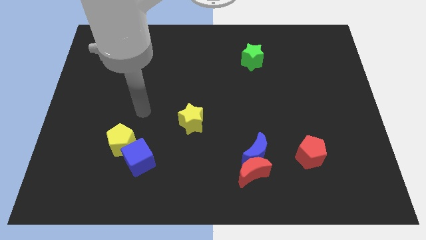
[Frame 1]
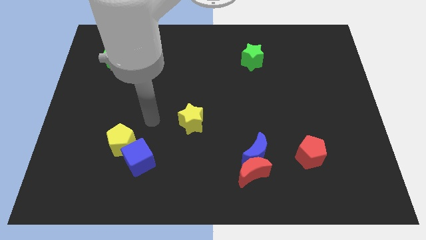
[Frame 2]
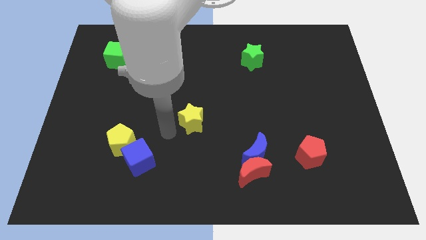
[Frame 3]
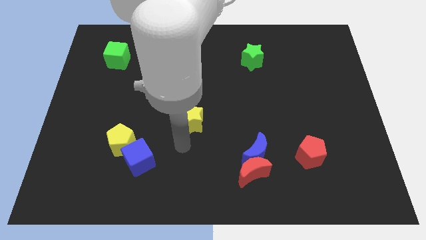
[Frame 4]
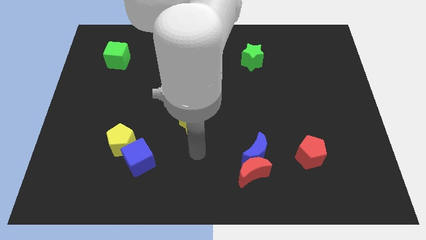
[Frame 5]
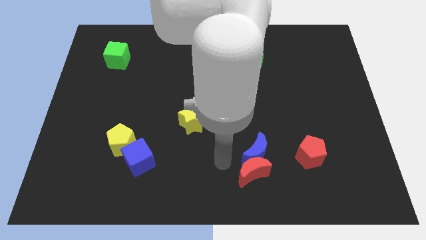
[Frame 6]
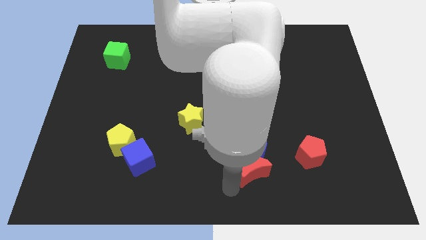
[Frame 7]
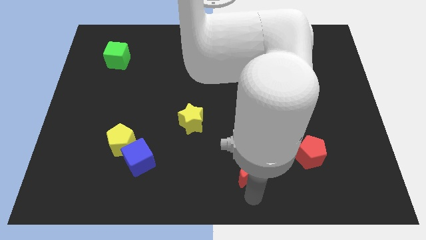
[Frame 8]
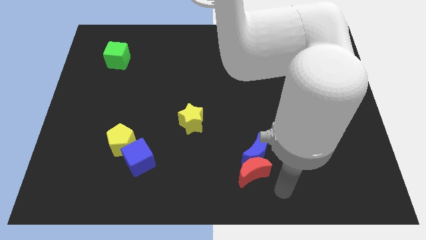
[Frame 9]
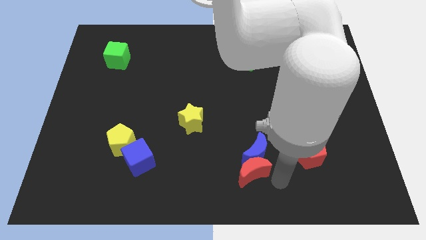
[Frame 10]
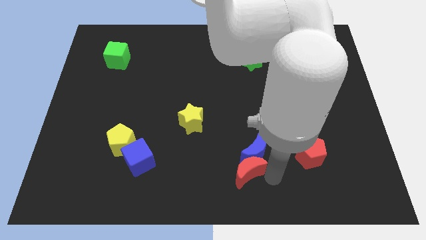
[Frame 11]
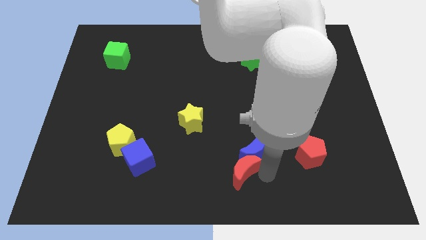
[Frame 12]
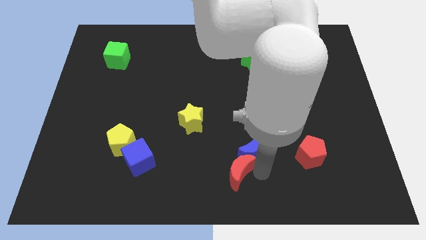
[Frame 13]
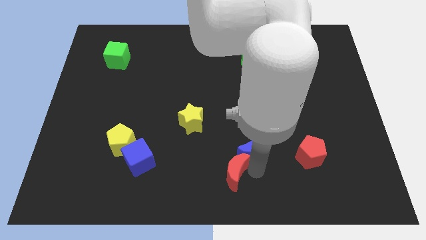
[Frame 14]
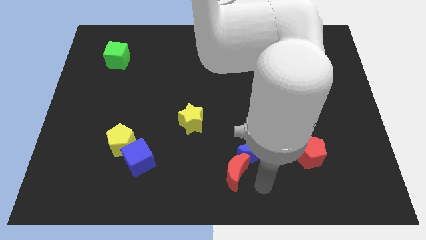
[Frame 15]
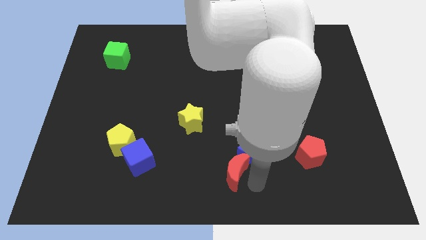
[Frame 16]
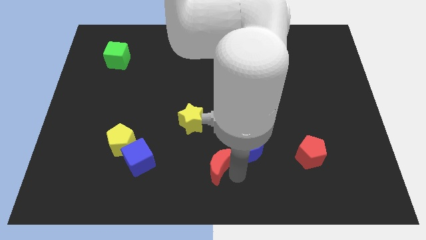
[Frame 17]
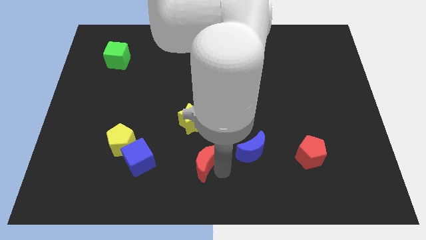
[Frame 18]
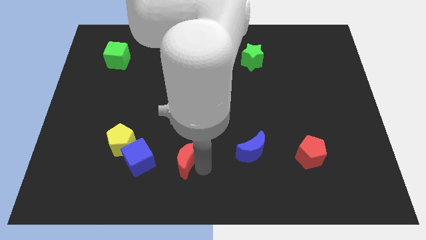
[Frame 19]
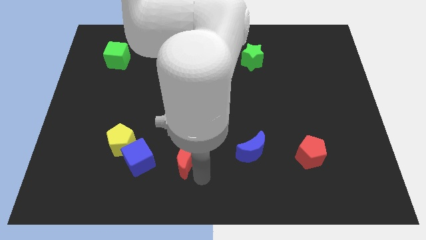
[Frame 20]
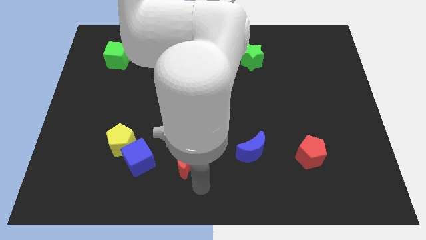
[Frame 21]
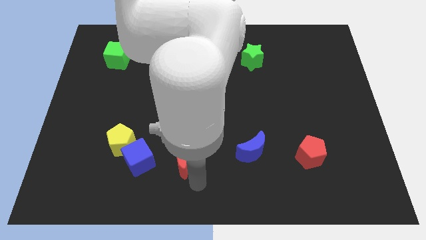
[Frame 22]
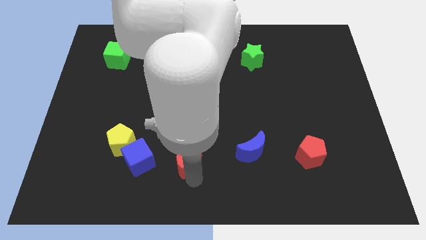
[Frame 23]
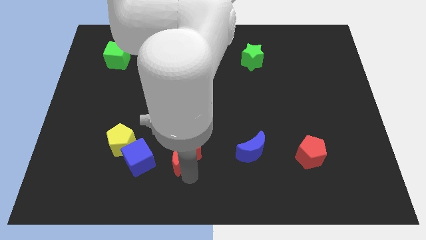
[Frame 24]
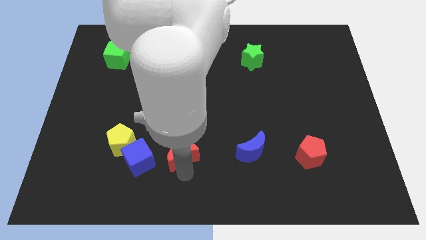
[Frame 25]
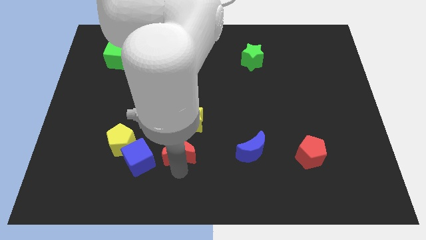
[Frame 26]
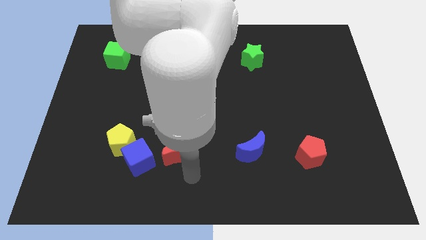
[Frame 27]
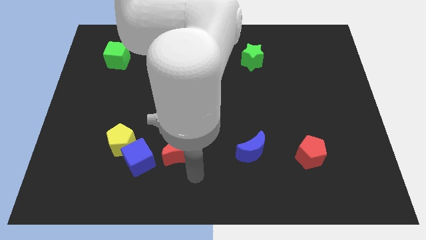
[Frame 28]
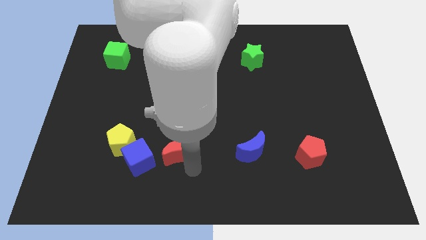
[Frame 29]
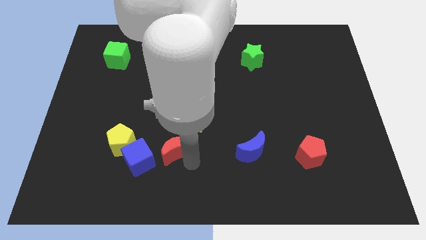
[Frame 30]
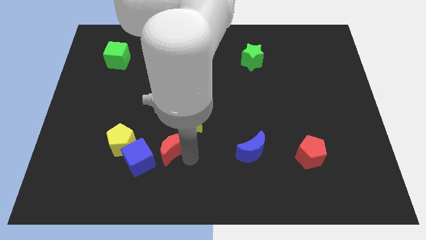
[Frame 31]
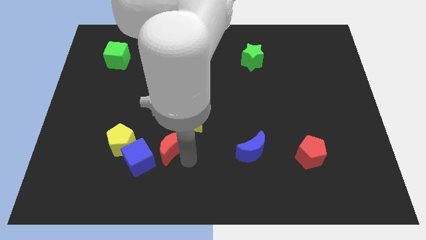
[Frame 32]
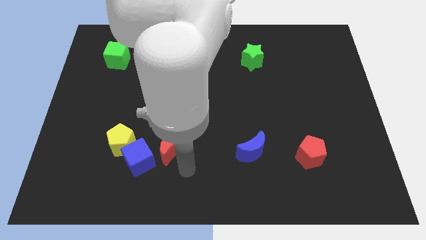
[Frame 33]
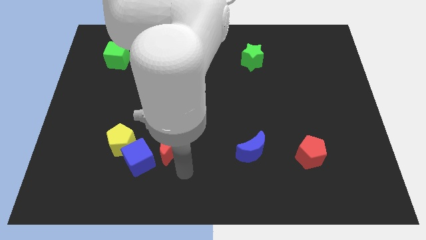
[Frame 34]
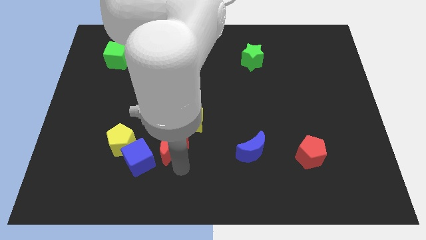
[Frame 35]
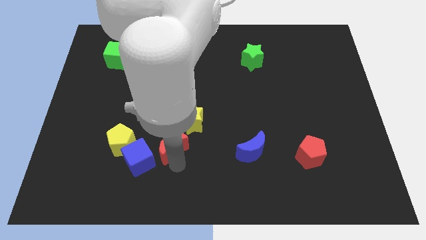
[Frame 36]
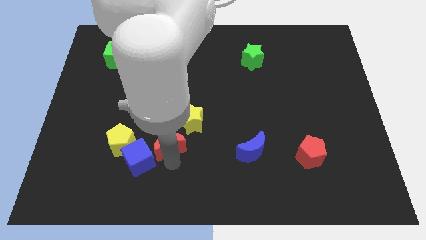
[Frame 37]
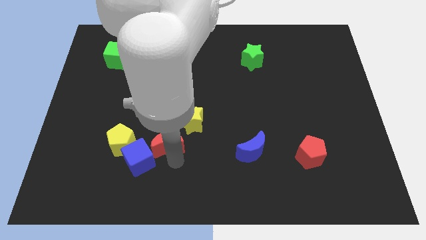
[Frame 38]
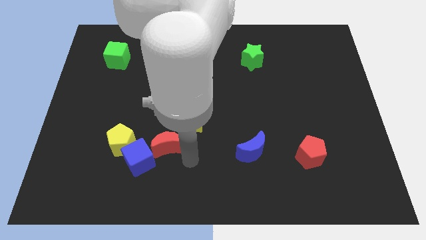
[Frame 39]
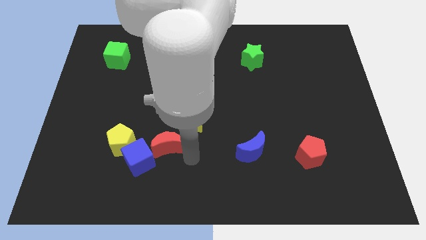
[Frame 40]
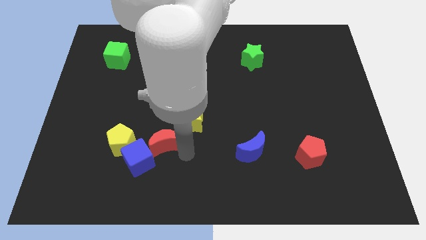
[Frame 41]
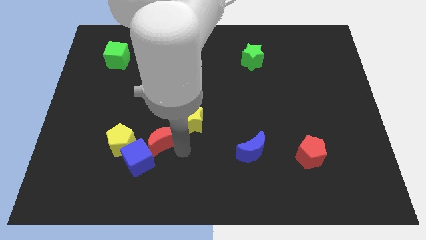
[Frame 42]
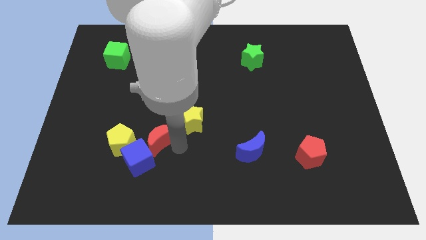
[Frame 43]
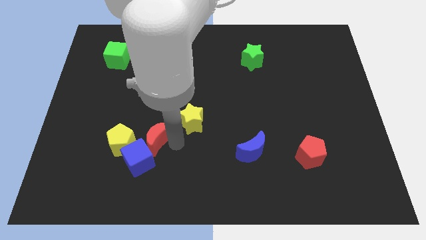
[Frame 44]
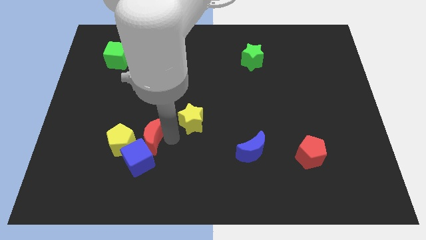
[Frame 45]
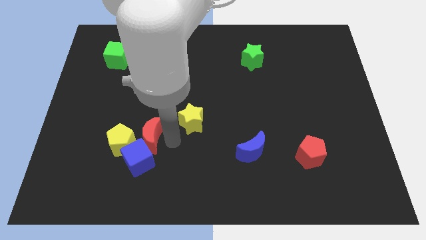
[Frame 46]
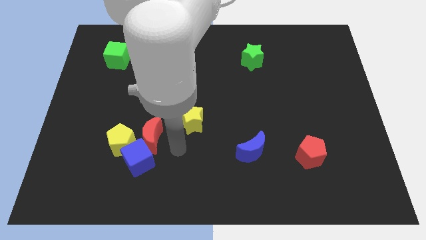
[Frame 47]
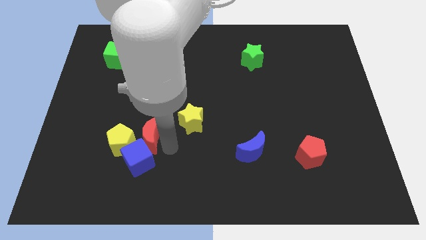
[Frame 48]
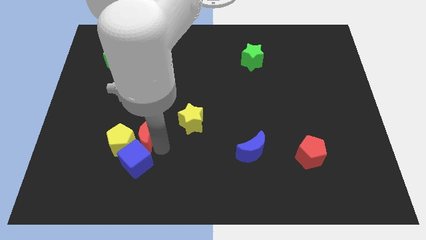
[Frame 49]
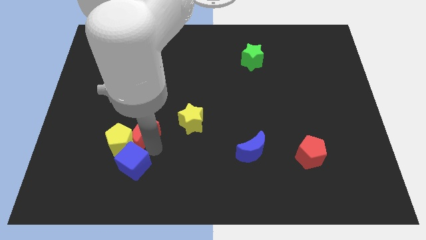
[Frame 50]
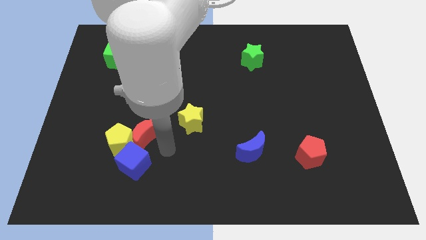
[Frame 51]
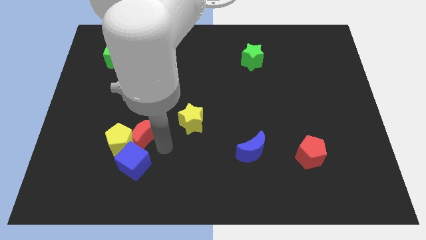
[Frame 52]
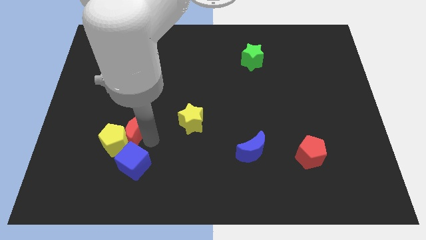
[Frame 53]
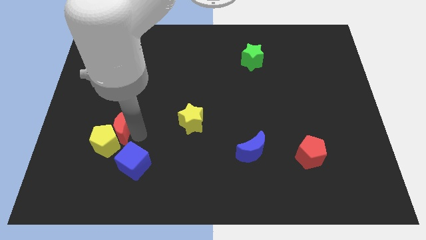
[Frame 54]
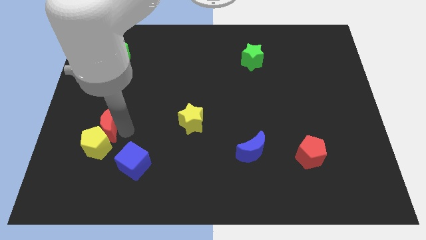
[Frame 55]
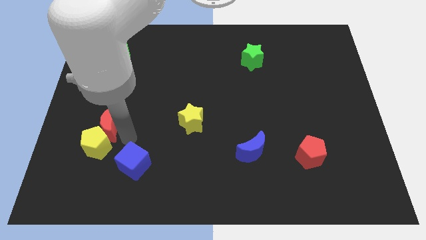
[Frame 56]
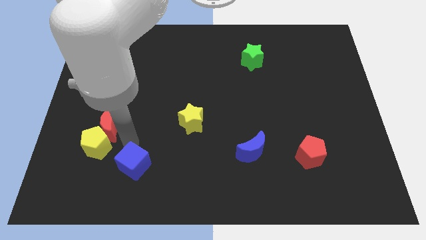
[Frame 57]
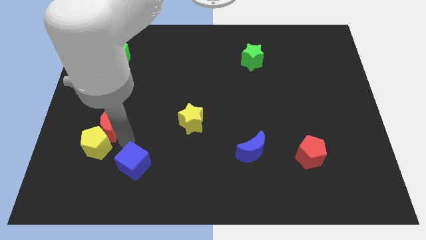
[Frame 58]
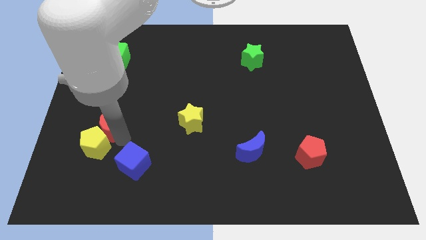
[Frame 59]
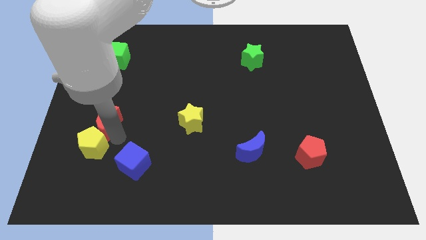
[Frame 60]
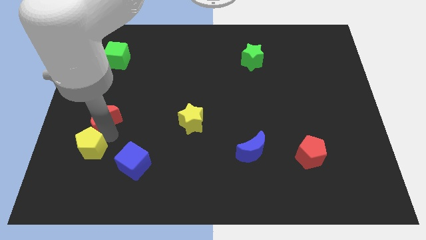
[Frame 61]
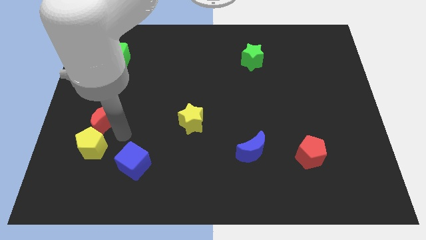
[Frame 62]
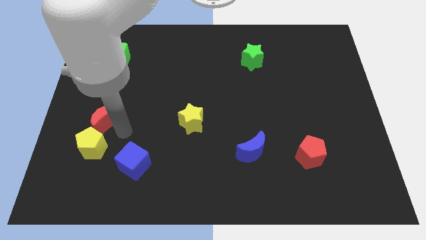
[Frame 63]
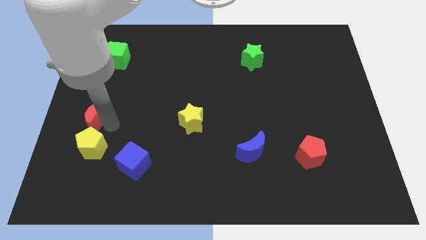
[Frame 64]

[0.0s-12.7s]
move the red moon to the left side
